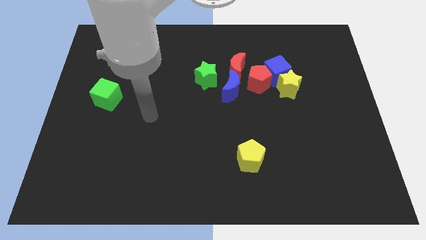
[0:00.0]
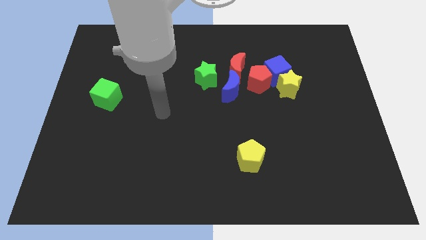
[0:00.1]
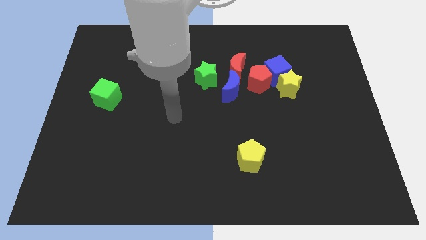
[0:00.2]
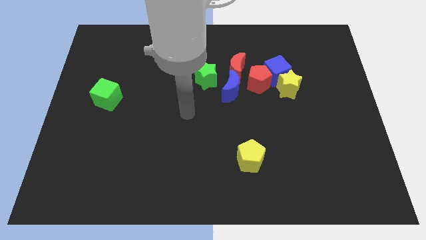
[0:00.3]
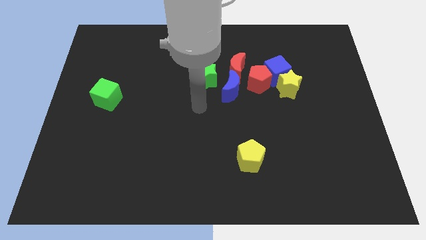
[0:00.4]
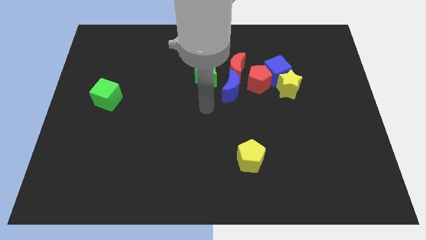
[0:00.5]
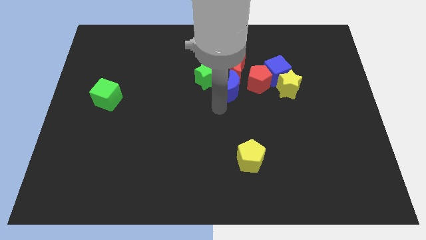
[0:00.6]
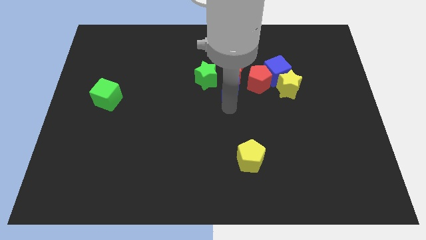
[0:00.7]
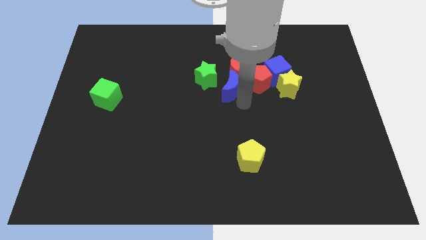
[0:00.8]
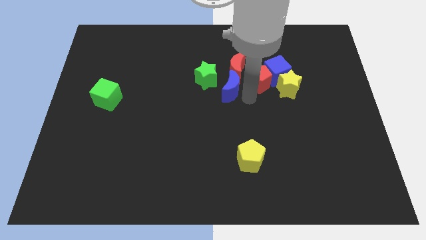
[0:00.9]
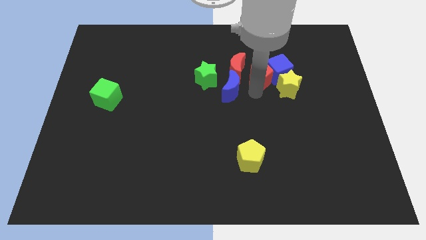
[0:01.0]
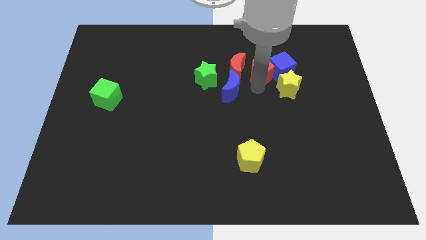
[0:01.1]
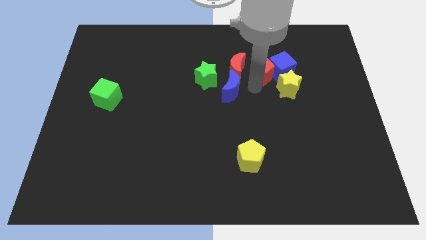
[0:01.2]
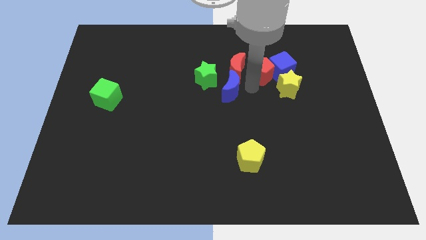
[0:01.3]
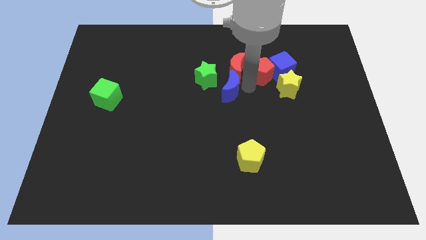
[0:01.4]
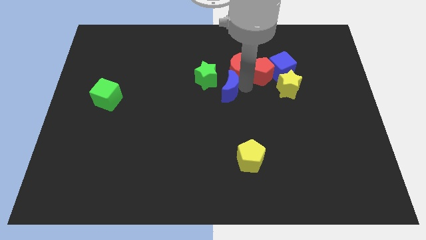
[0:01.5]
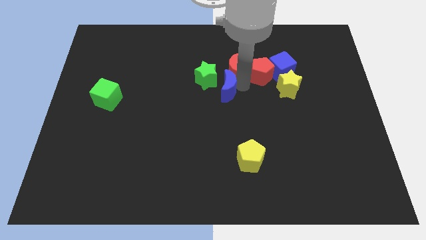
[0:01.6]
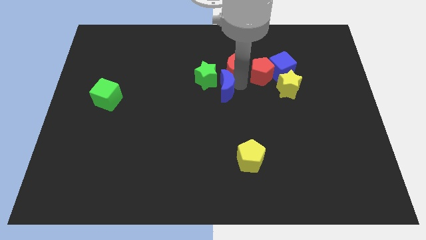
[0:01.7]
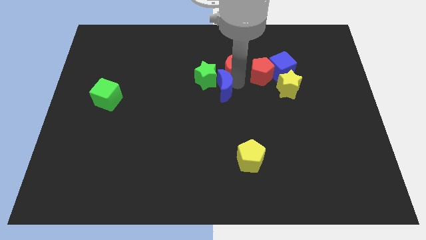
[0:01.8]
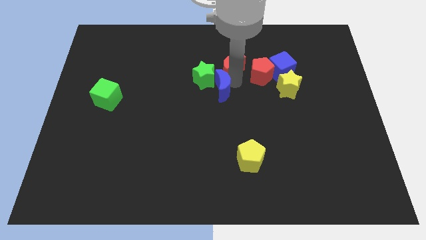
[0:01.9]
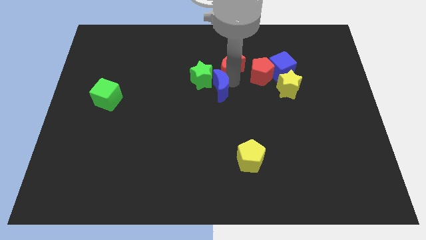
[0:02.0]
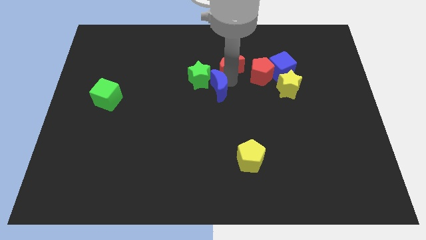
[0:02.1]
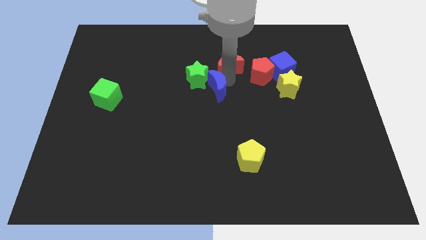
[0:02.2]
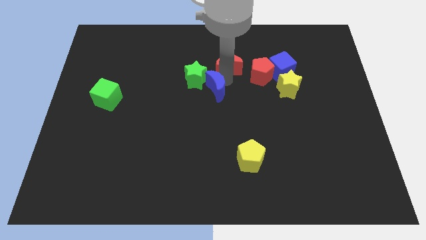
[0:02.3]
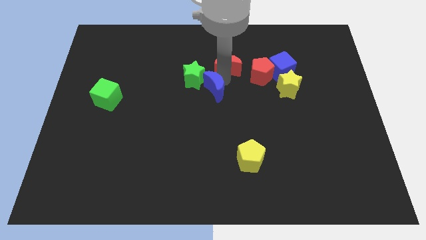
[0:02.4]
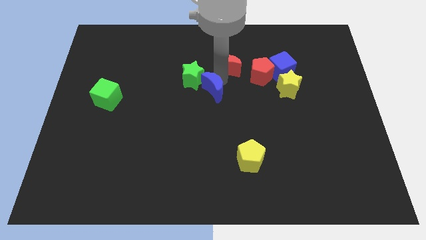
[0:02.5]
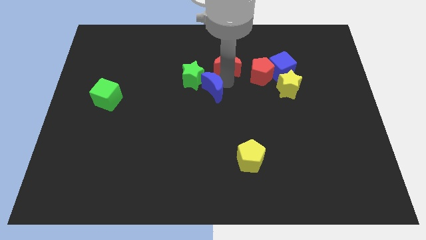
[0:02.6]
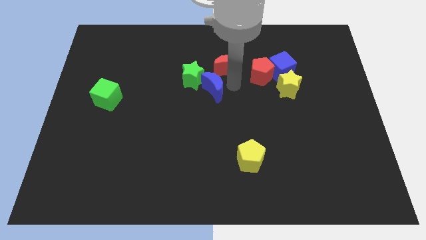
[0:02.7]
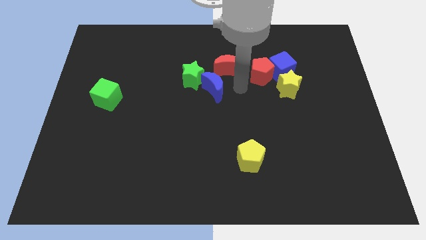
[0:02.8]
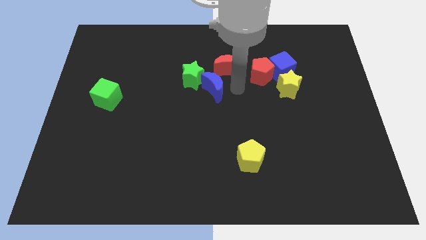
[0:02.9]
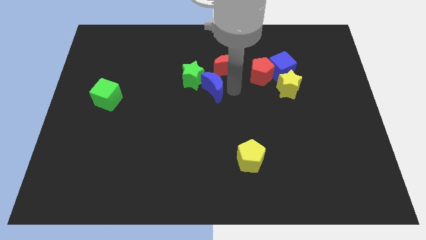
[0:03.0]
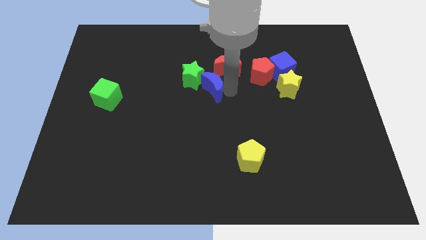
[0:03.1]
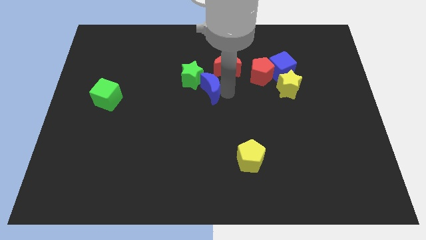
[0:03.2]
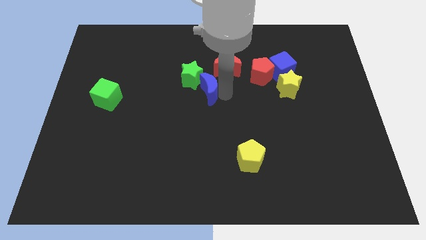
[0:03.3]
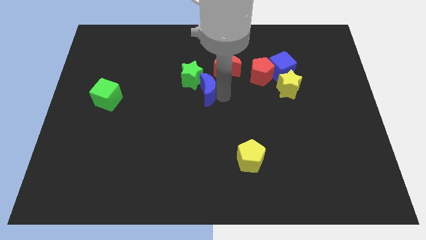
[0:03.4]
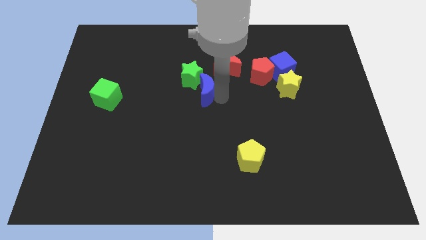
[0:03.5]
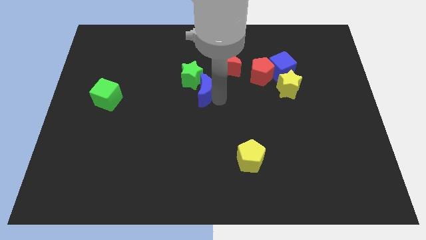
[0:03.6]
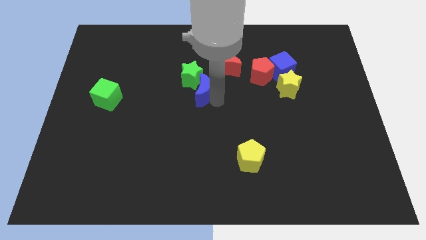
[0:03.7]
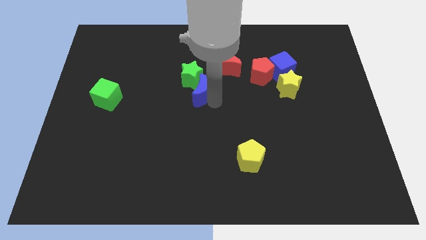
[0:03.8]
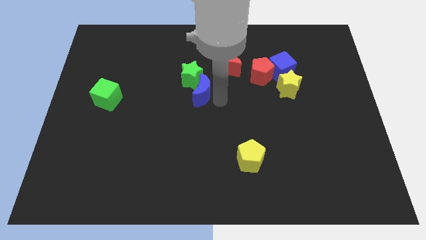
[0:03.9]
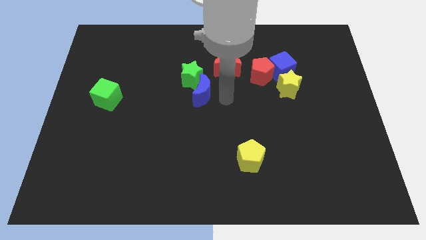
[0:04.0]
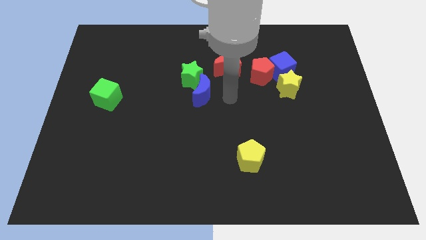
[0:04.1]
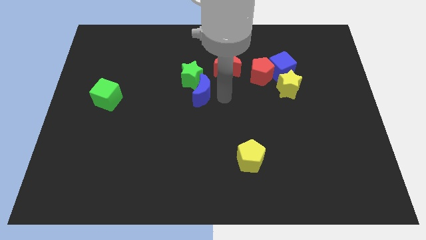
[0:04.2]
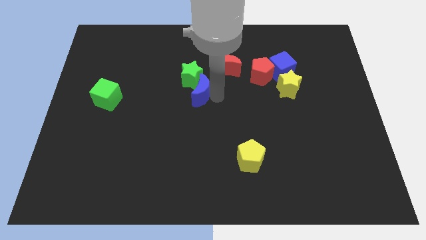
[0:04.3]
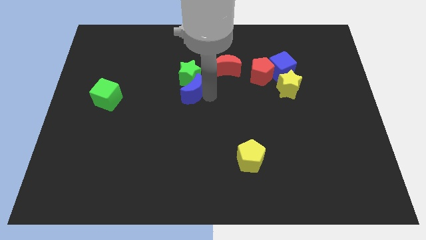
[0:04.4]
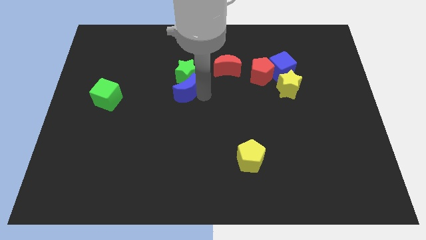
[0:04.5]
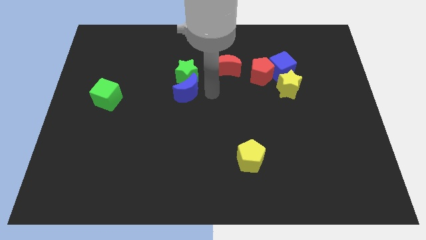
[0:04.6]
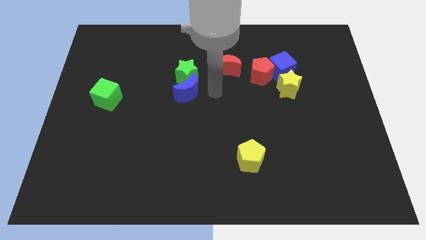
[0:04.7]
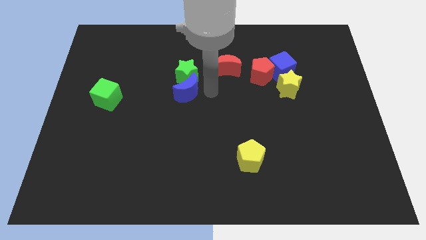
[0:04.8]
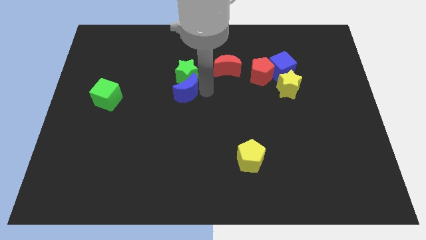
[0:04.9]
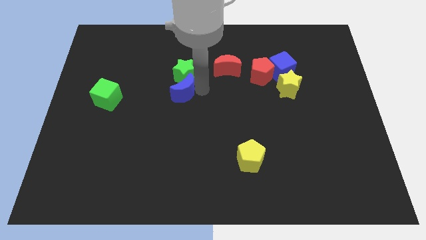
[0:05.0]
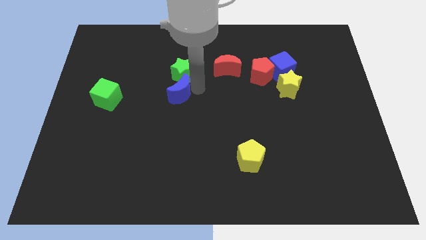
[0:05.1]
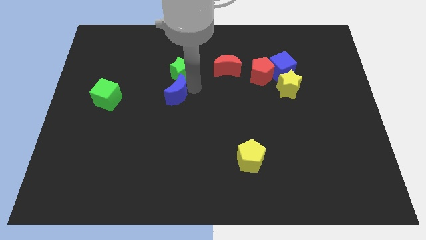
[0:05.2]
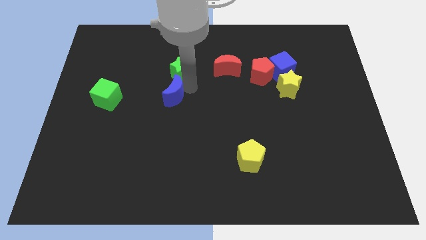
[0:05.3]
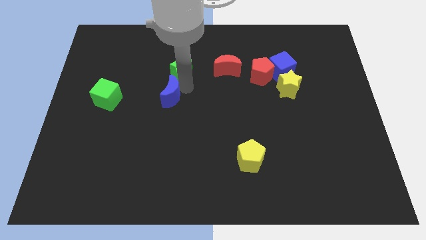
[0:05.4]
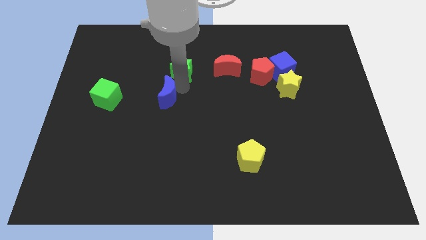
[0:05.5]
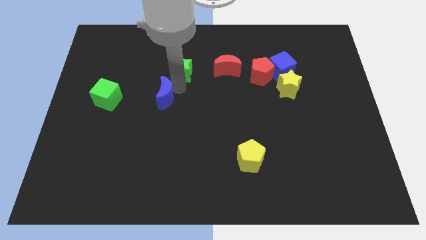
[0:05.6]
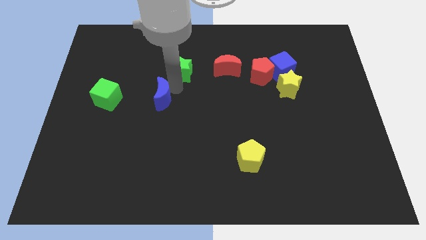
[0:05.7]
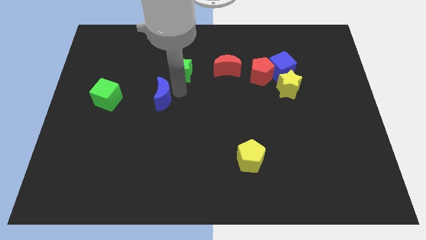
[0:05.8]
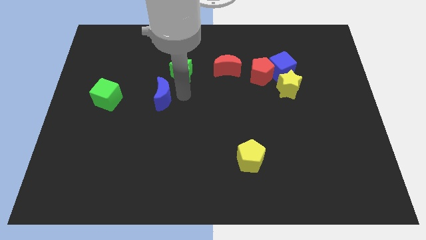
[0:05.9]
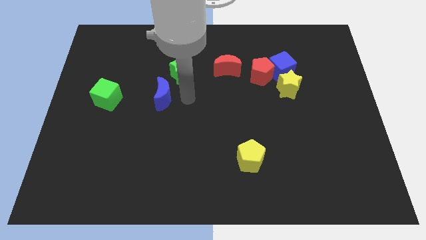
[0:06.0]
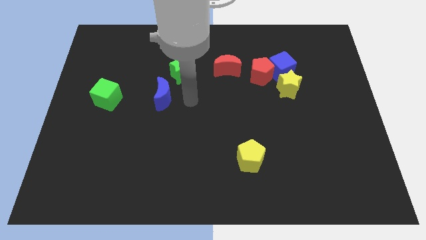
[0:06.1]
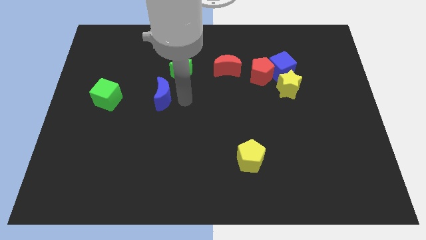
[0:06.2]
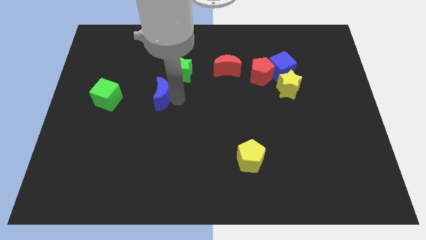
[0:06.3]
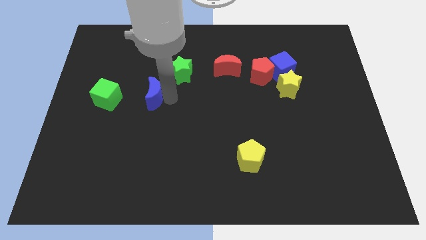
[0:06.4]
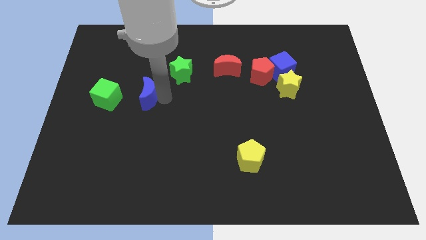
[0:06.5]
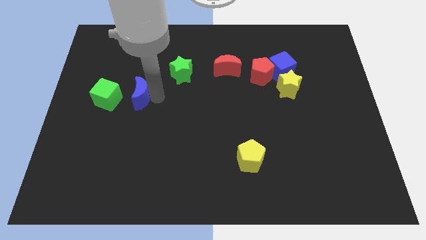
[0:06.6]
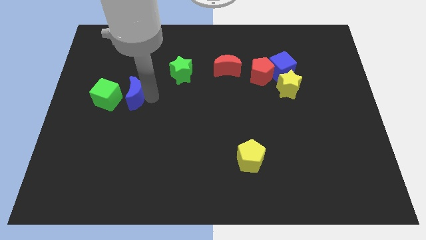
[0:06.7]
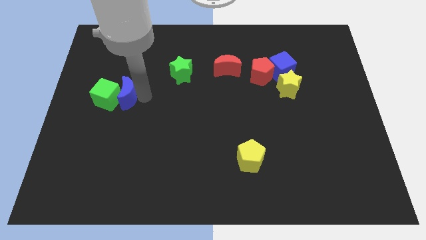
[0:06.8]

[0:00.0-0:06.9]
move the blue moon next to the green cube

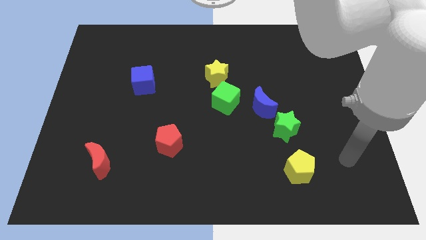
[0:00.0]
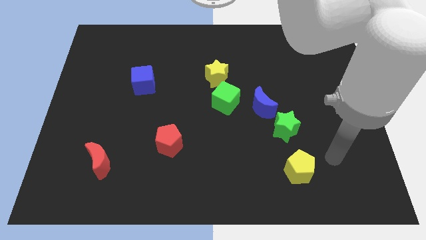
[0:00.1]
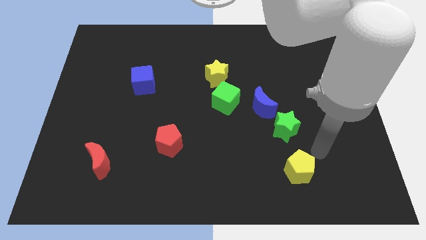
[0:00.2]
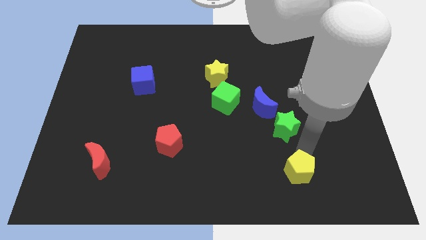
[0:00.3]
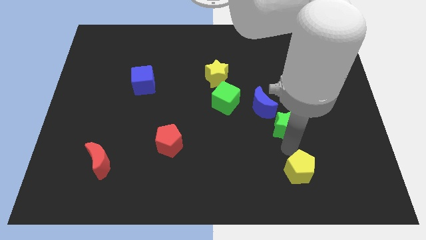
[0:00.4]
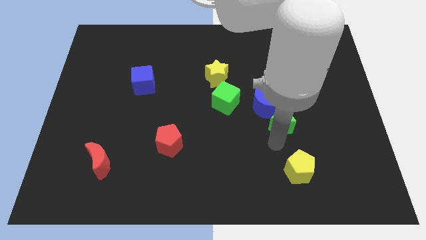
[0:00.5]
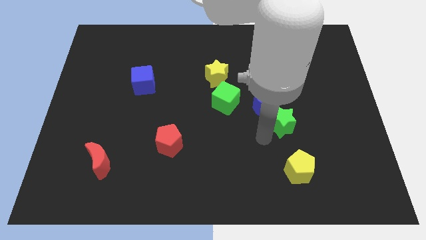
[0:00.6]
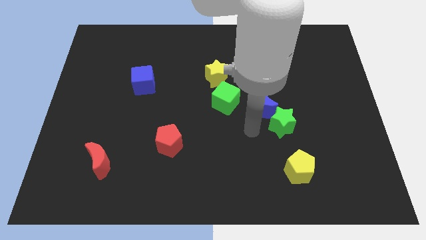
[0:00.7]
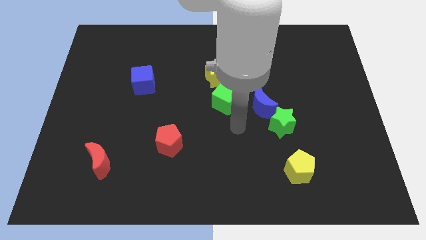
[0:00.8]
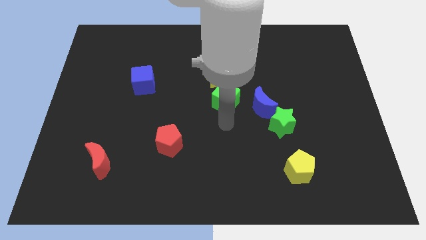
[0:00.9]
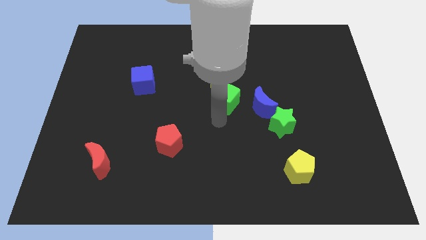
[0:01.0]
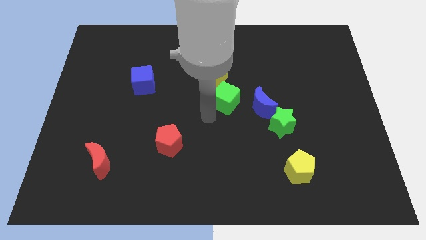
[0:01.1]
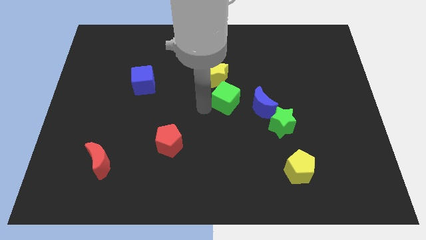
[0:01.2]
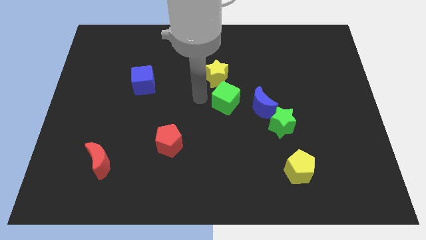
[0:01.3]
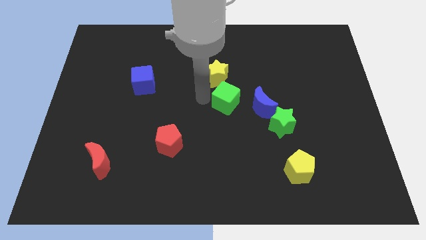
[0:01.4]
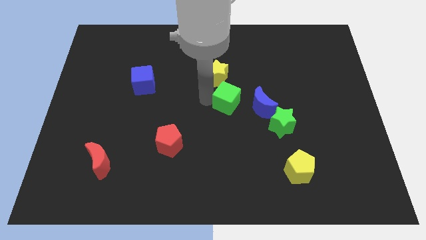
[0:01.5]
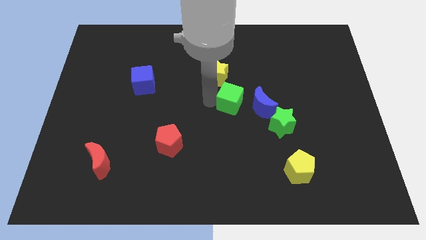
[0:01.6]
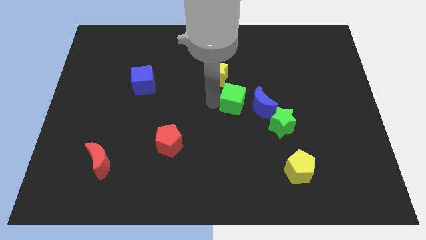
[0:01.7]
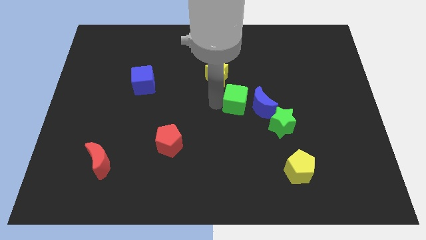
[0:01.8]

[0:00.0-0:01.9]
slide the green cube next to the blue moon
